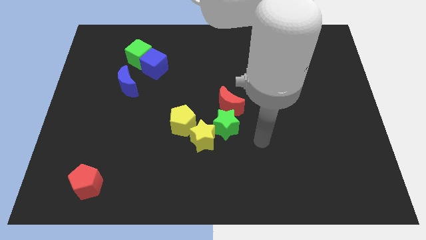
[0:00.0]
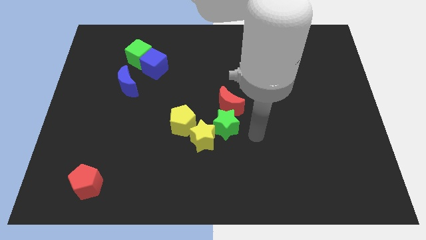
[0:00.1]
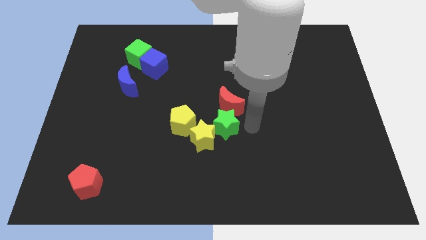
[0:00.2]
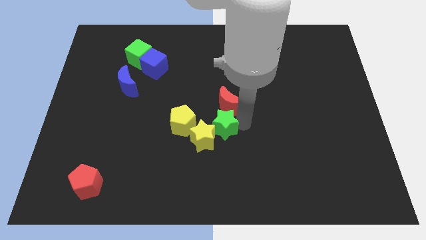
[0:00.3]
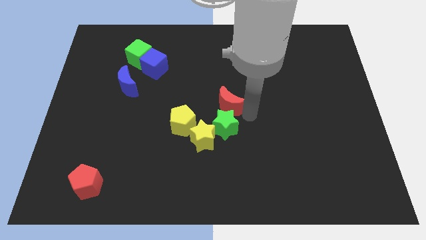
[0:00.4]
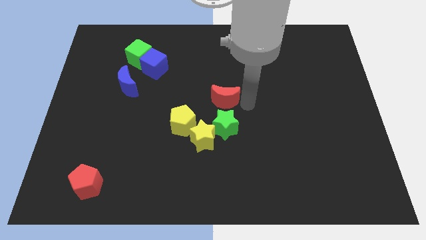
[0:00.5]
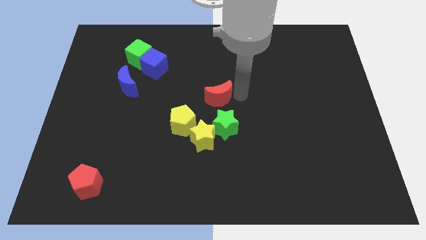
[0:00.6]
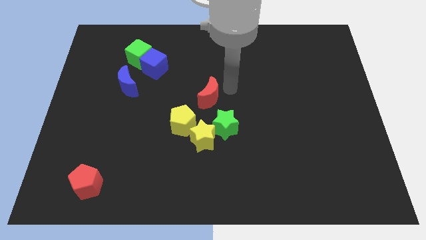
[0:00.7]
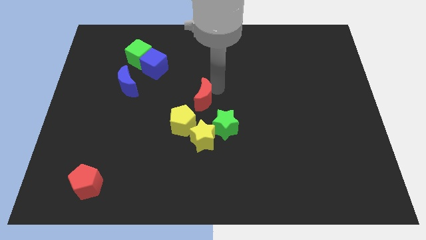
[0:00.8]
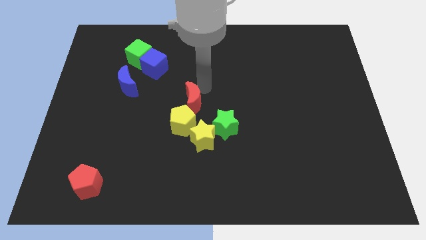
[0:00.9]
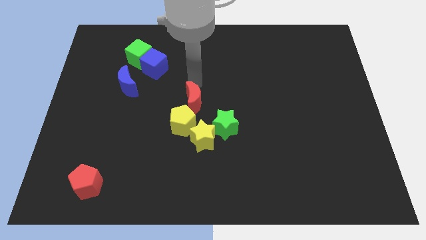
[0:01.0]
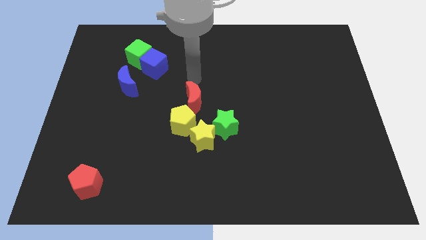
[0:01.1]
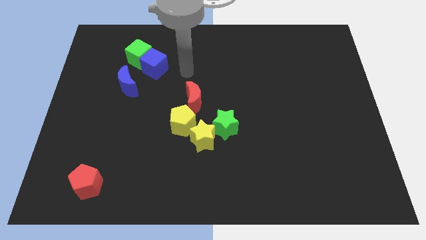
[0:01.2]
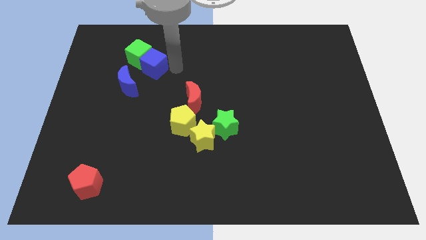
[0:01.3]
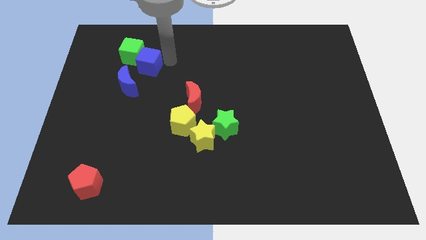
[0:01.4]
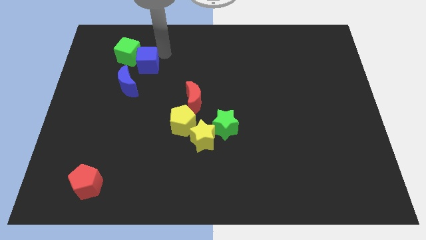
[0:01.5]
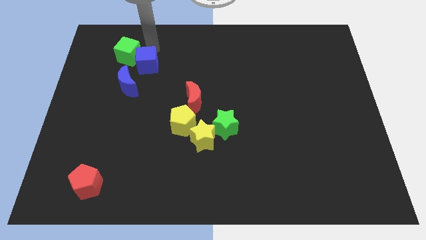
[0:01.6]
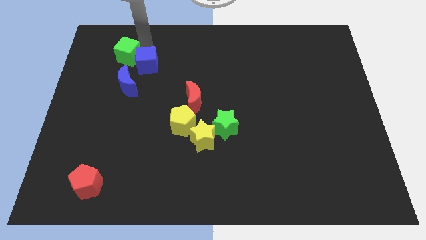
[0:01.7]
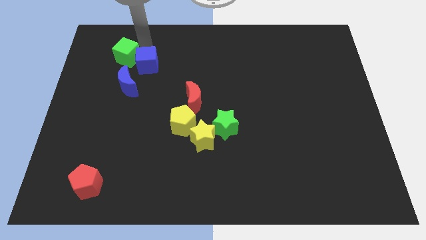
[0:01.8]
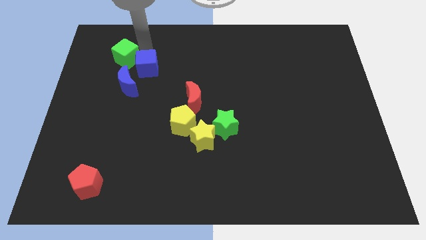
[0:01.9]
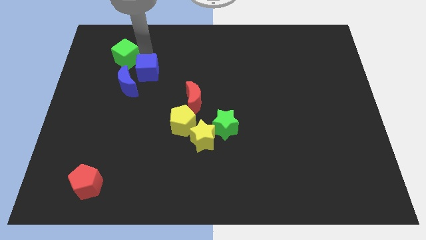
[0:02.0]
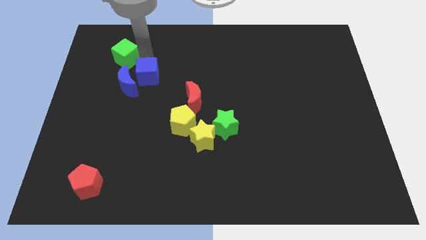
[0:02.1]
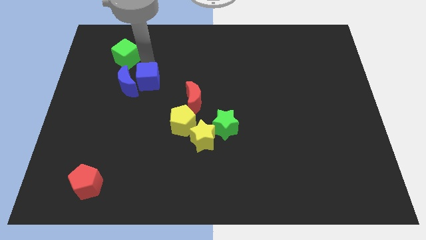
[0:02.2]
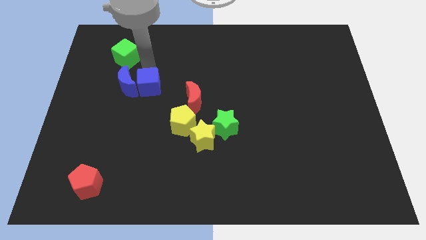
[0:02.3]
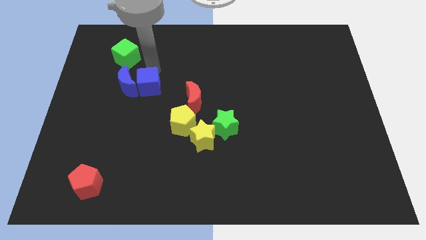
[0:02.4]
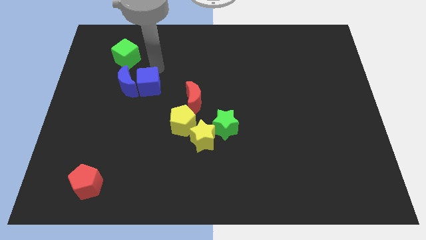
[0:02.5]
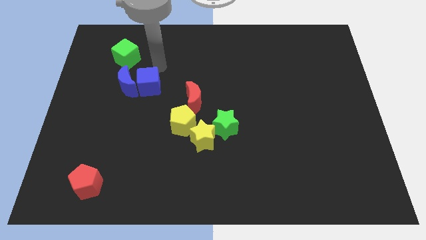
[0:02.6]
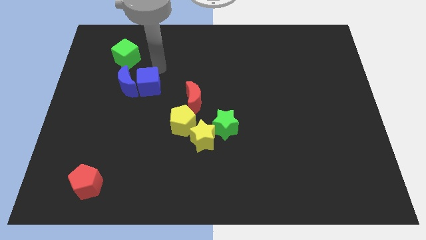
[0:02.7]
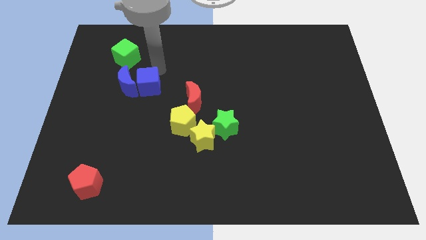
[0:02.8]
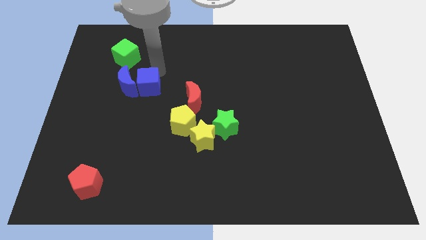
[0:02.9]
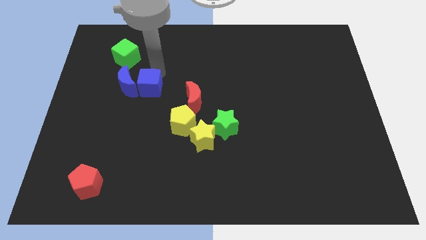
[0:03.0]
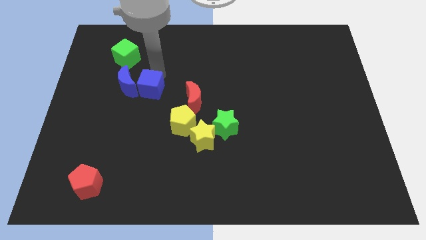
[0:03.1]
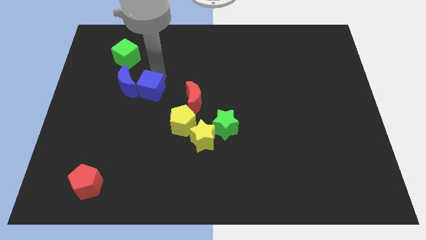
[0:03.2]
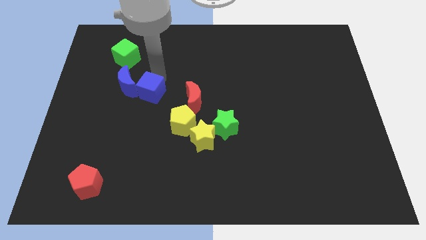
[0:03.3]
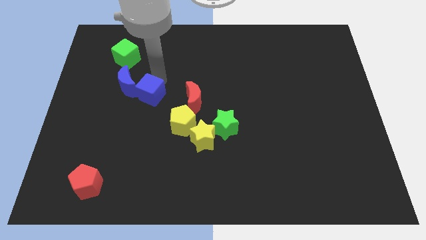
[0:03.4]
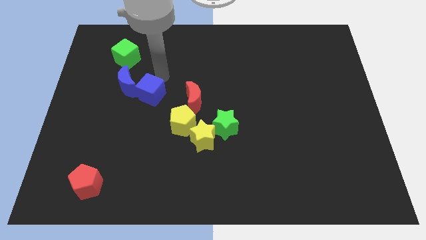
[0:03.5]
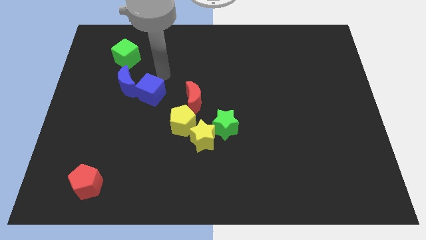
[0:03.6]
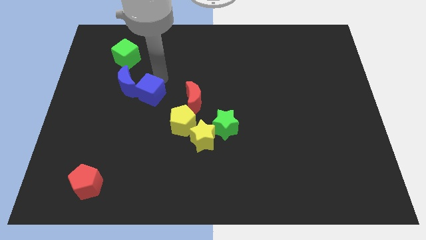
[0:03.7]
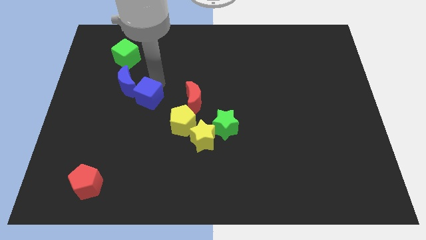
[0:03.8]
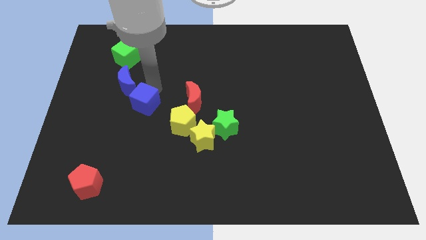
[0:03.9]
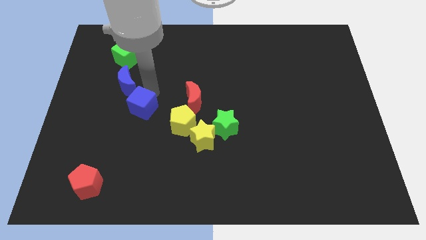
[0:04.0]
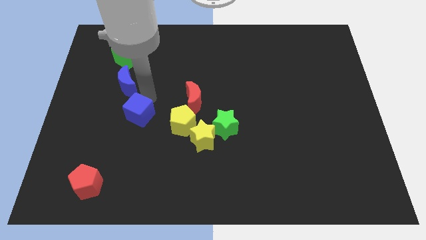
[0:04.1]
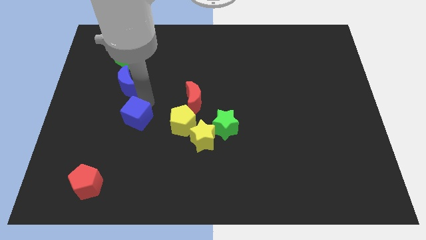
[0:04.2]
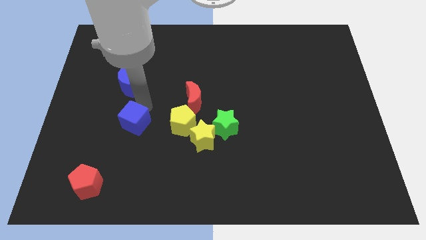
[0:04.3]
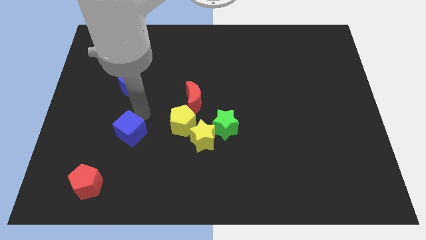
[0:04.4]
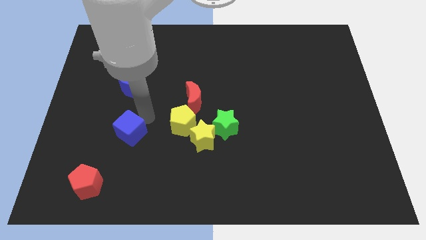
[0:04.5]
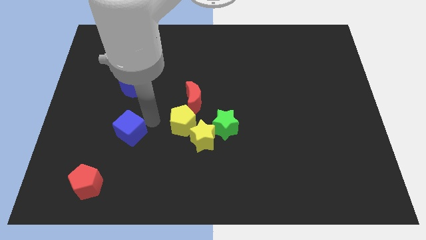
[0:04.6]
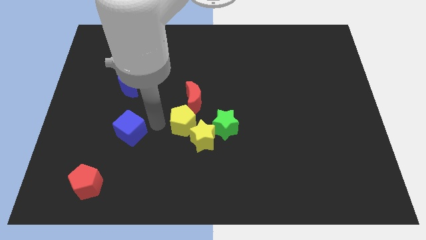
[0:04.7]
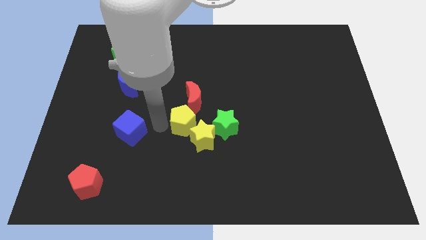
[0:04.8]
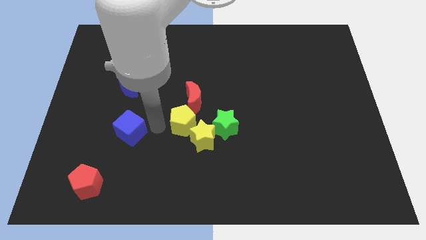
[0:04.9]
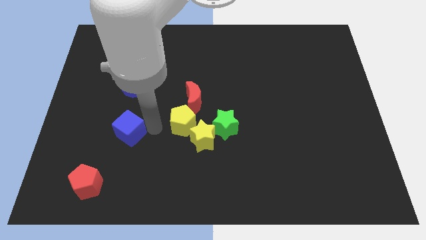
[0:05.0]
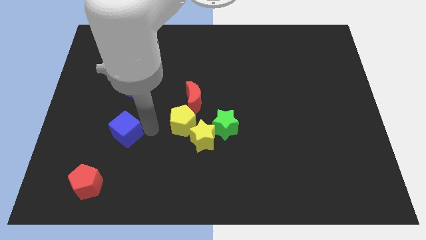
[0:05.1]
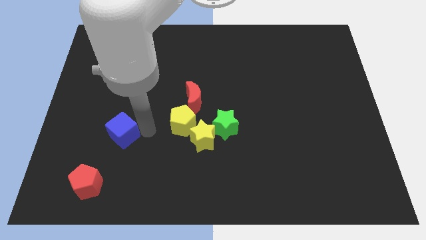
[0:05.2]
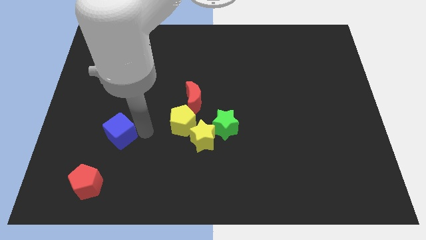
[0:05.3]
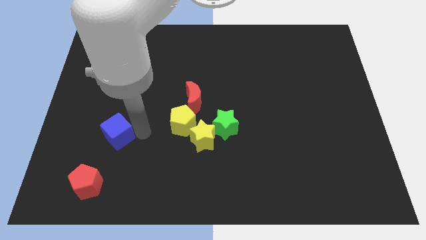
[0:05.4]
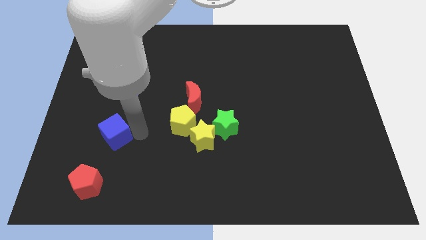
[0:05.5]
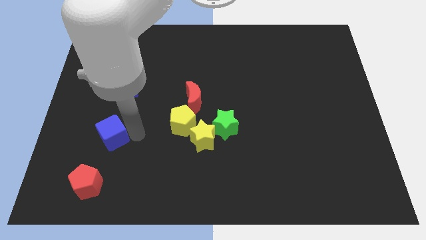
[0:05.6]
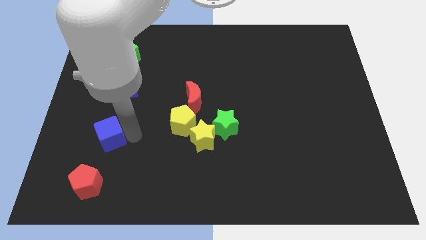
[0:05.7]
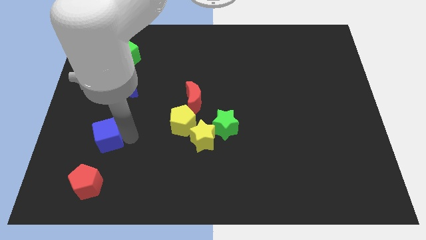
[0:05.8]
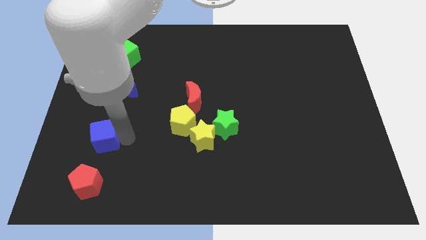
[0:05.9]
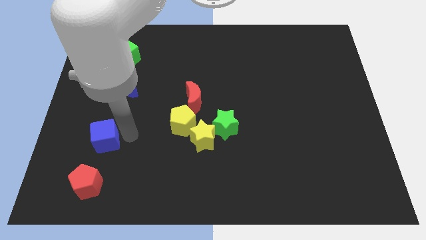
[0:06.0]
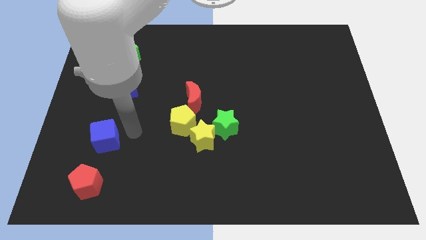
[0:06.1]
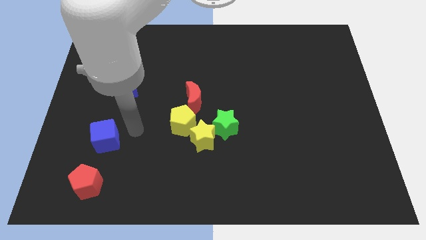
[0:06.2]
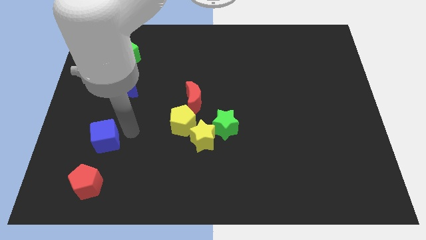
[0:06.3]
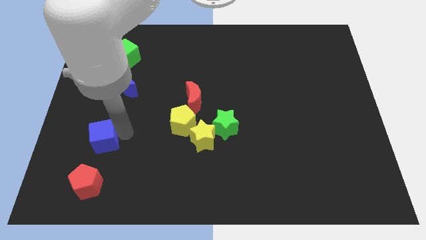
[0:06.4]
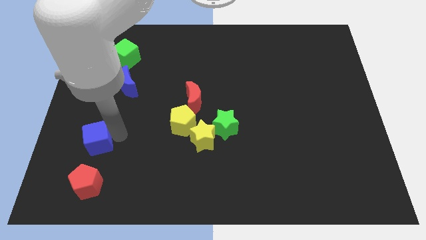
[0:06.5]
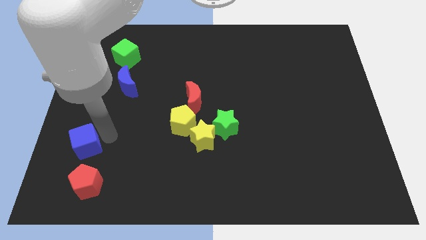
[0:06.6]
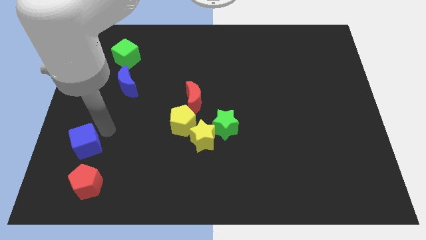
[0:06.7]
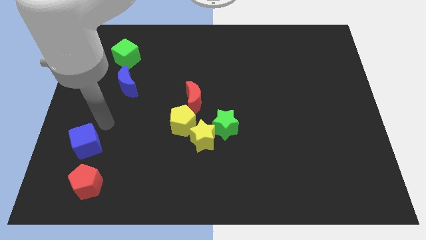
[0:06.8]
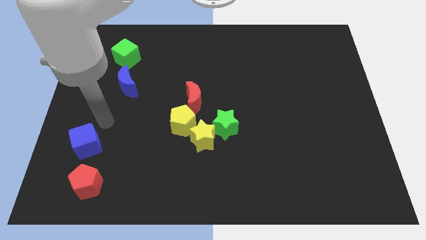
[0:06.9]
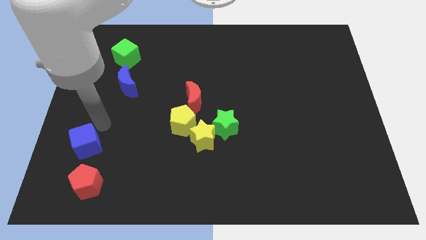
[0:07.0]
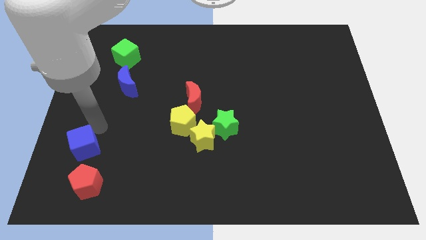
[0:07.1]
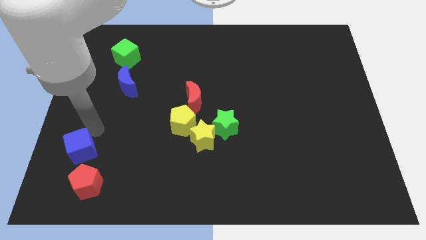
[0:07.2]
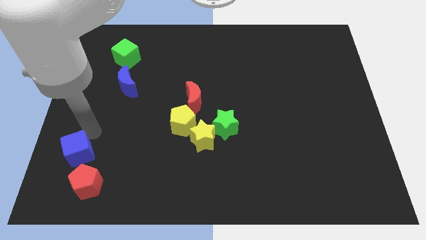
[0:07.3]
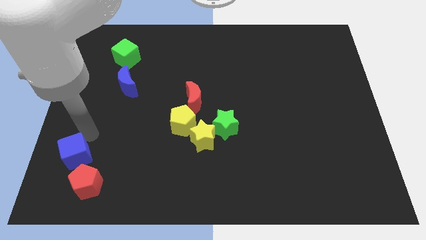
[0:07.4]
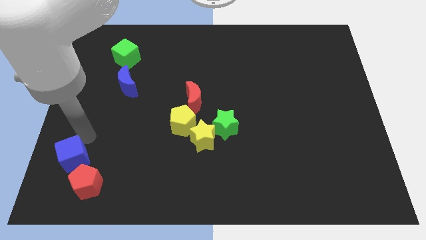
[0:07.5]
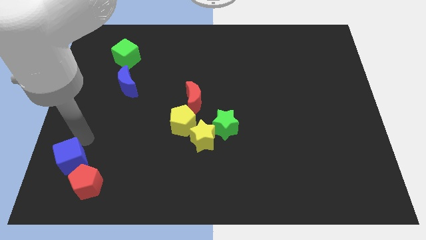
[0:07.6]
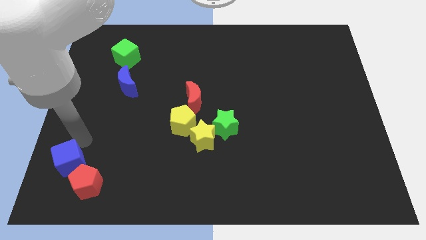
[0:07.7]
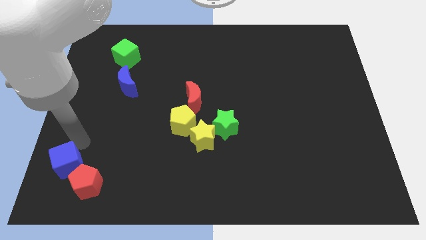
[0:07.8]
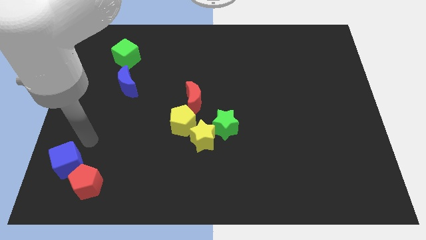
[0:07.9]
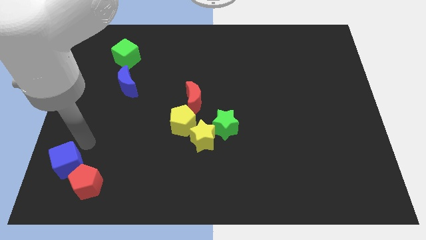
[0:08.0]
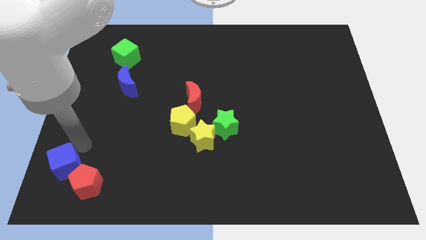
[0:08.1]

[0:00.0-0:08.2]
slide the blue cube to the bottom left corner

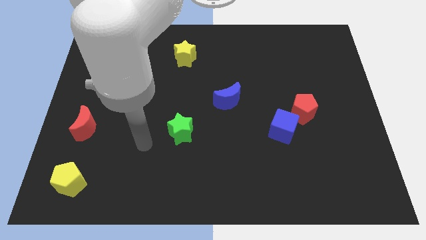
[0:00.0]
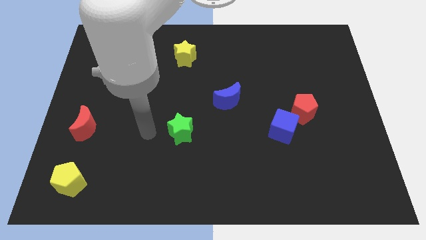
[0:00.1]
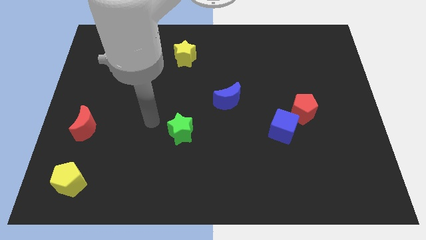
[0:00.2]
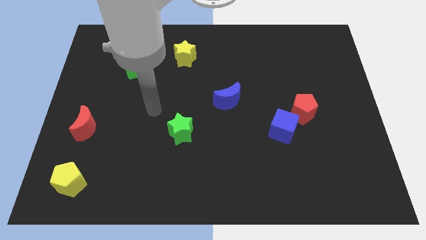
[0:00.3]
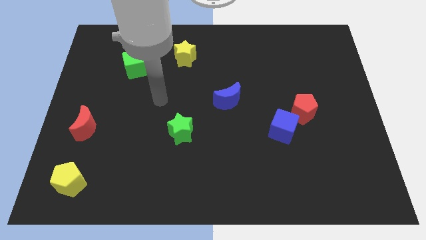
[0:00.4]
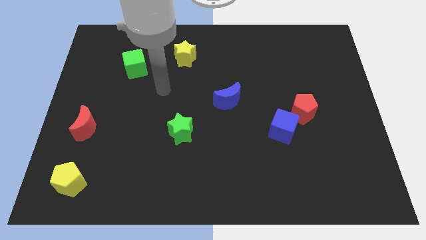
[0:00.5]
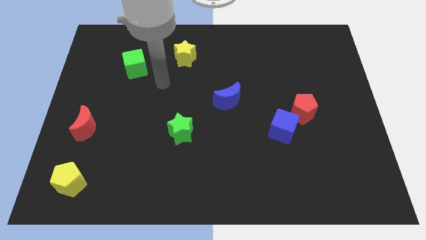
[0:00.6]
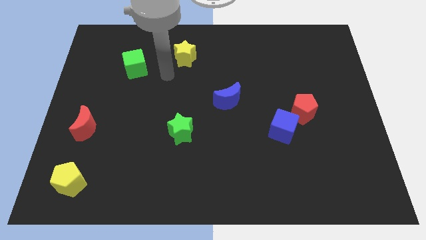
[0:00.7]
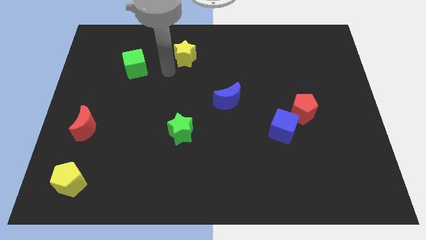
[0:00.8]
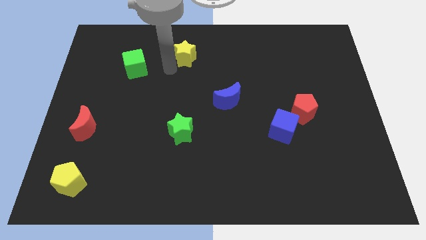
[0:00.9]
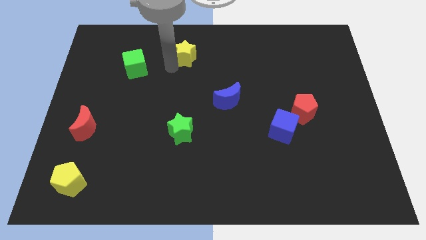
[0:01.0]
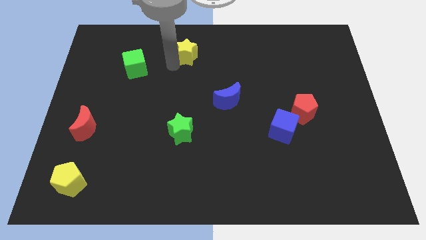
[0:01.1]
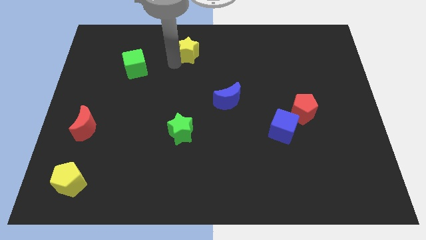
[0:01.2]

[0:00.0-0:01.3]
push the yellow star to the top side
